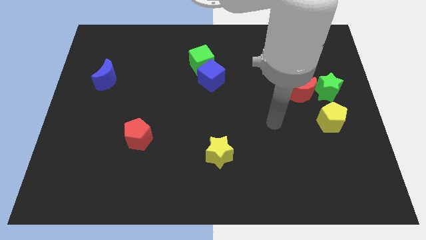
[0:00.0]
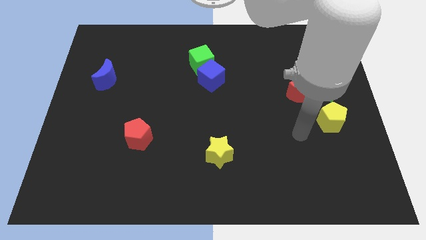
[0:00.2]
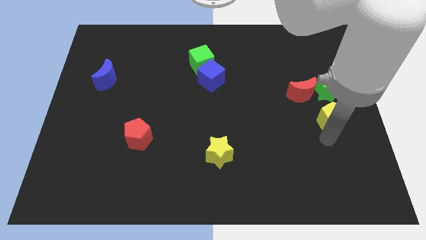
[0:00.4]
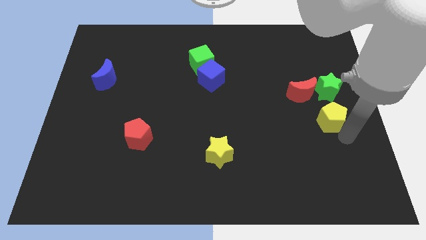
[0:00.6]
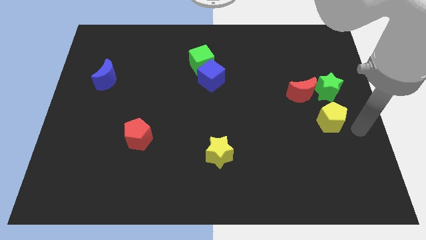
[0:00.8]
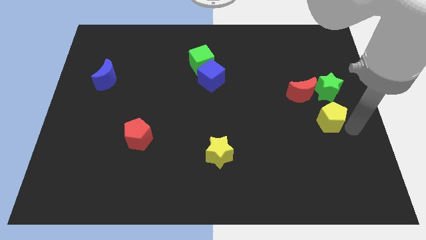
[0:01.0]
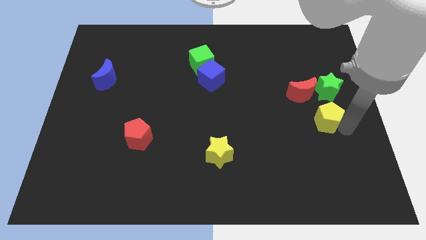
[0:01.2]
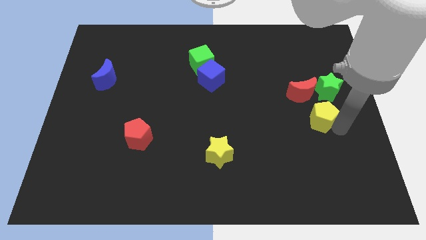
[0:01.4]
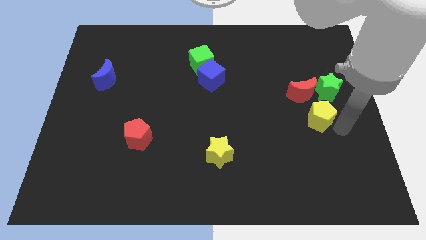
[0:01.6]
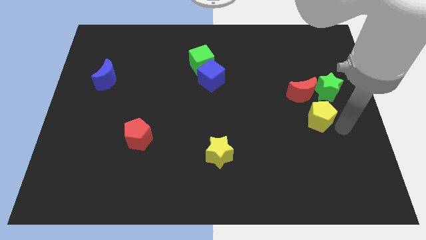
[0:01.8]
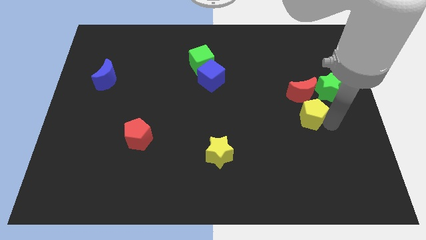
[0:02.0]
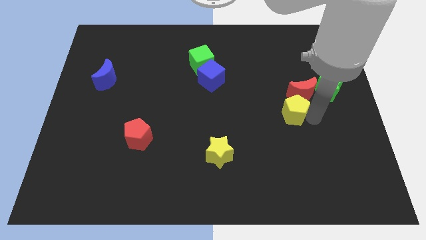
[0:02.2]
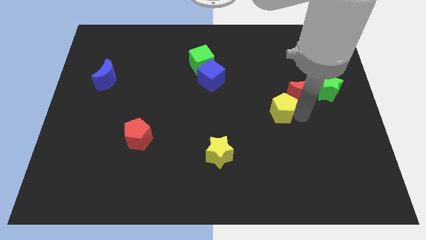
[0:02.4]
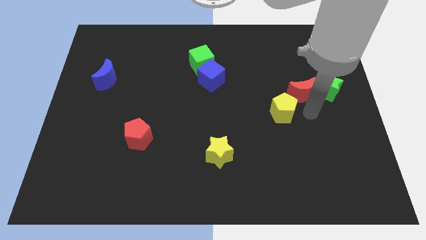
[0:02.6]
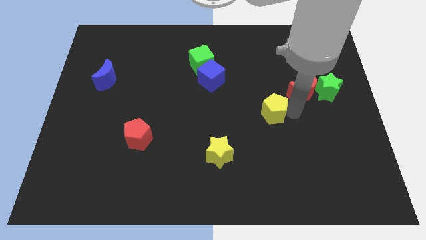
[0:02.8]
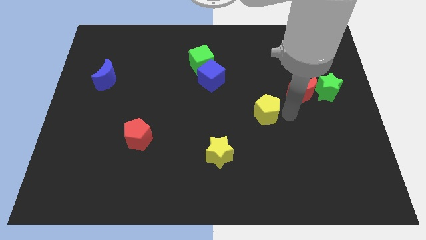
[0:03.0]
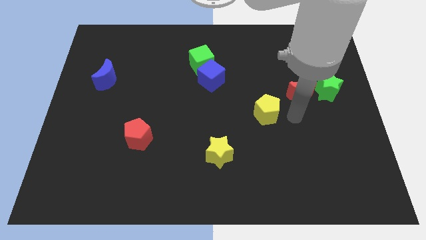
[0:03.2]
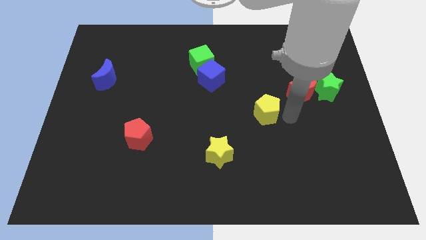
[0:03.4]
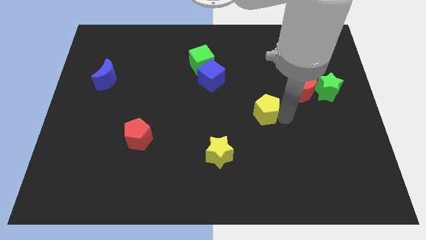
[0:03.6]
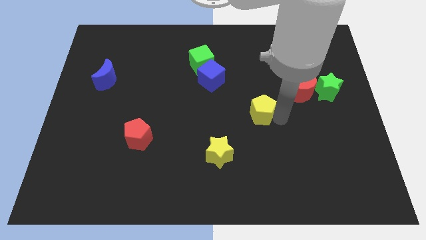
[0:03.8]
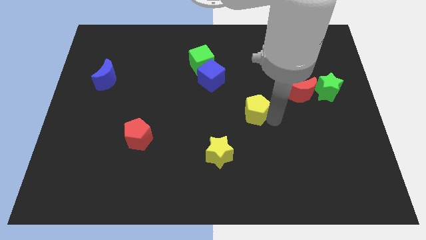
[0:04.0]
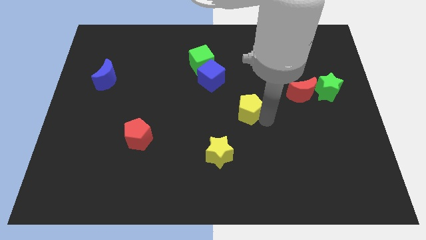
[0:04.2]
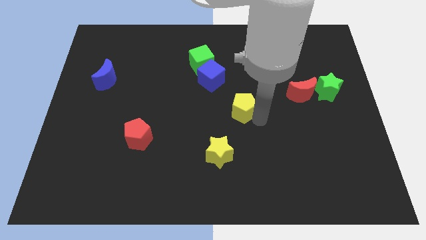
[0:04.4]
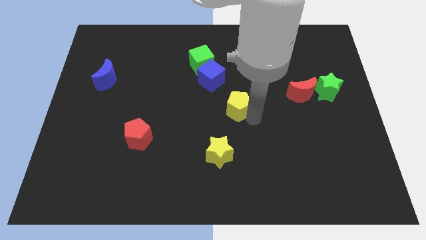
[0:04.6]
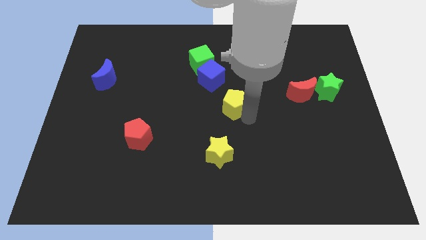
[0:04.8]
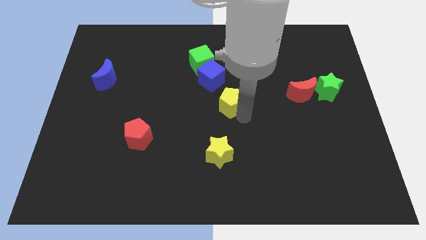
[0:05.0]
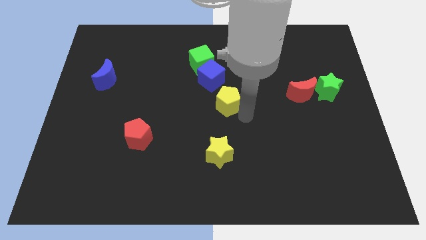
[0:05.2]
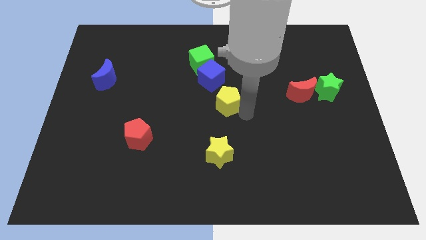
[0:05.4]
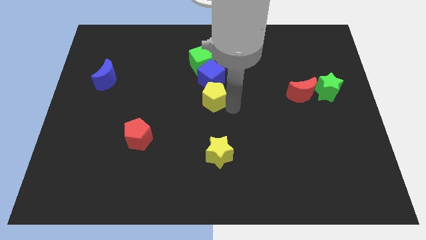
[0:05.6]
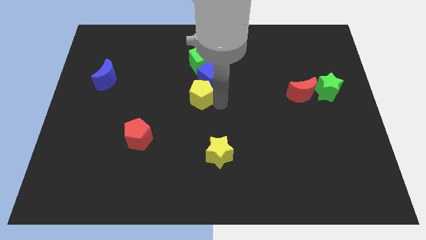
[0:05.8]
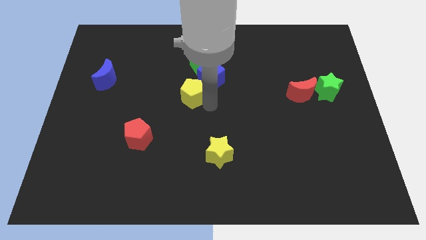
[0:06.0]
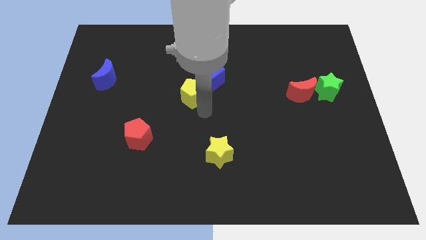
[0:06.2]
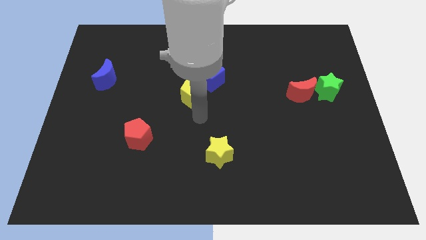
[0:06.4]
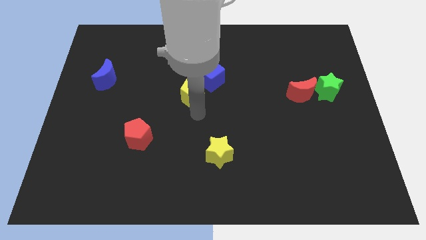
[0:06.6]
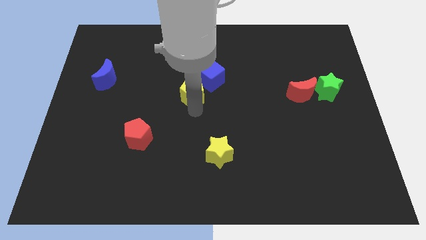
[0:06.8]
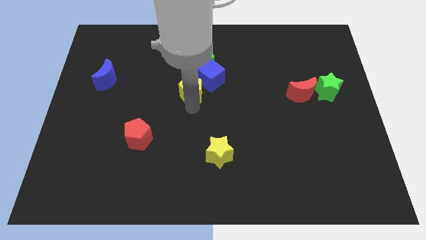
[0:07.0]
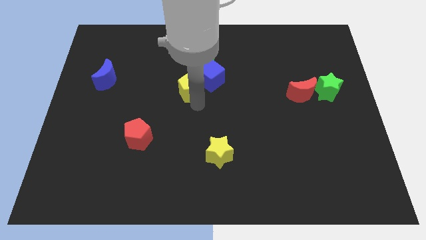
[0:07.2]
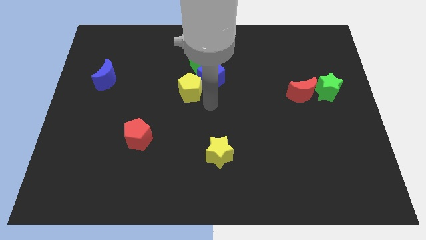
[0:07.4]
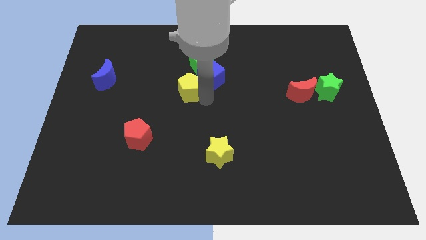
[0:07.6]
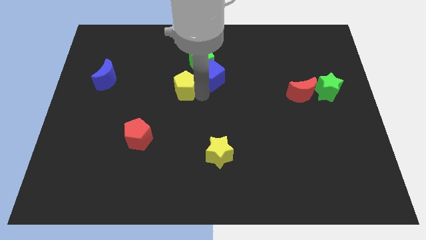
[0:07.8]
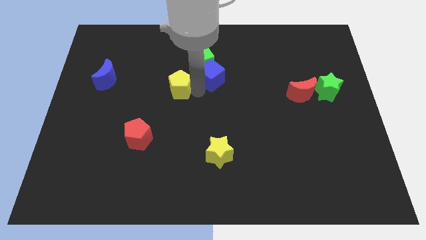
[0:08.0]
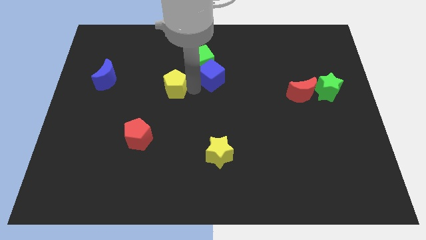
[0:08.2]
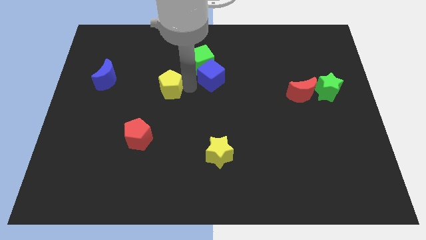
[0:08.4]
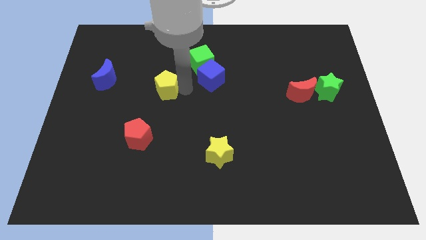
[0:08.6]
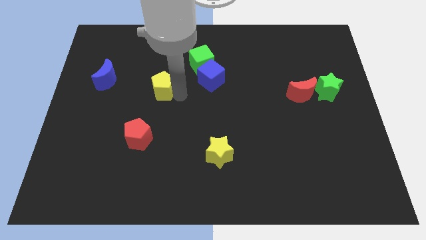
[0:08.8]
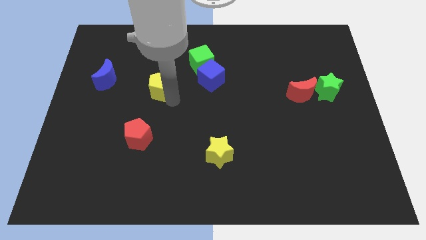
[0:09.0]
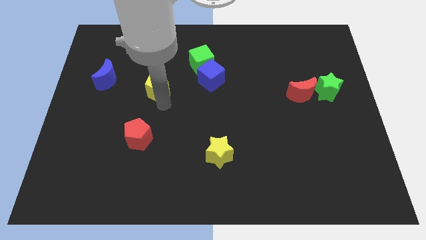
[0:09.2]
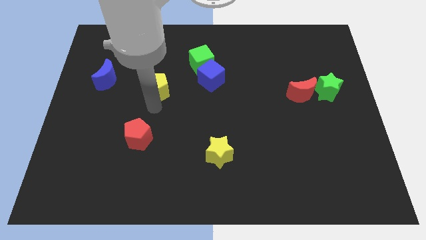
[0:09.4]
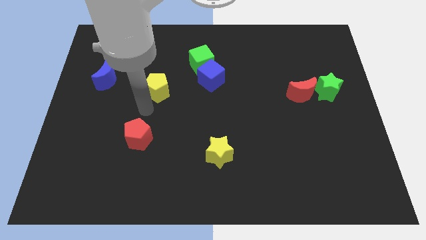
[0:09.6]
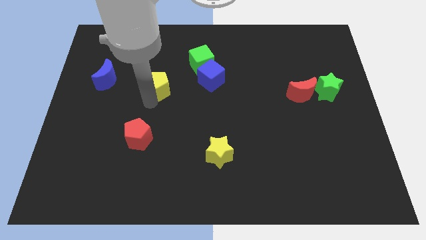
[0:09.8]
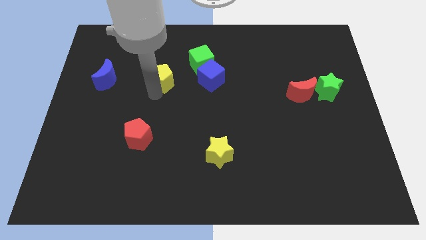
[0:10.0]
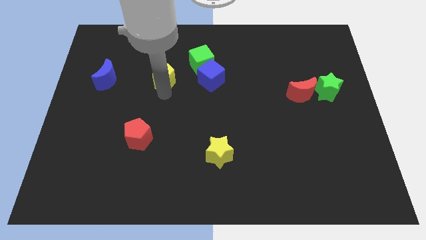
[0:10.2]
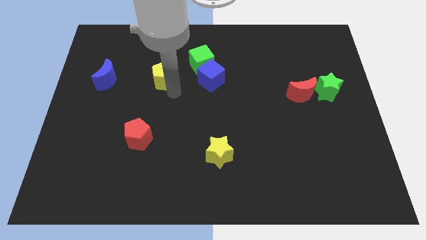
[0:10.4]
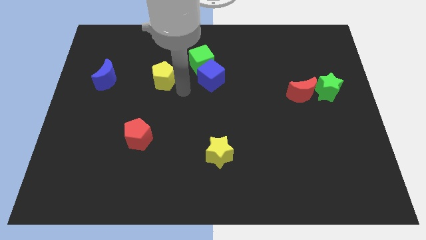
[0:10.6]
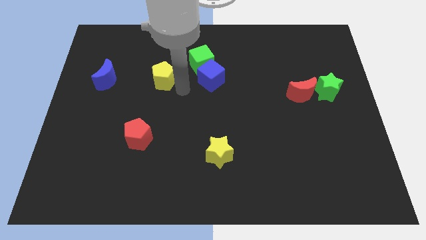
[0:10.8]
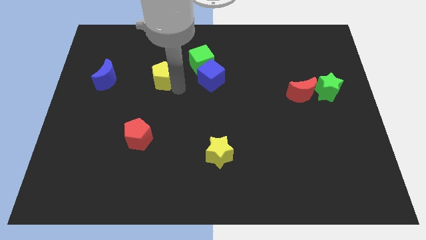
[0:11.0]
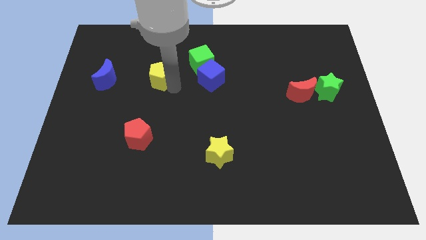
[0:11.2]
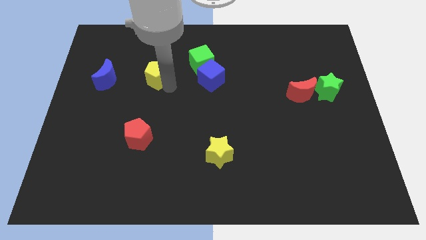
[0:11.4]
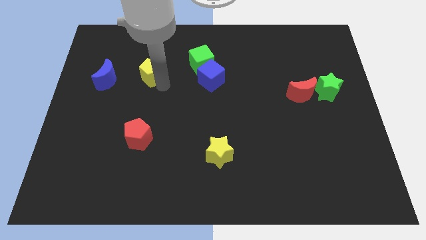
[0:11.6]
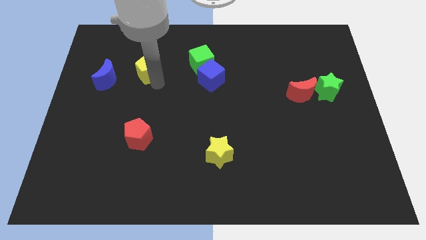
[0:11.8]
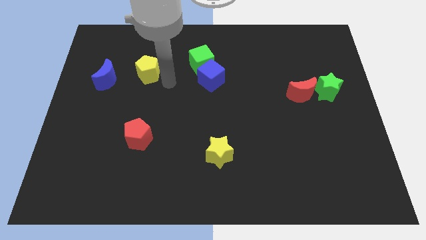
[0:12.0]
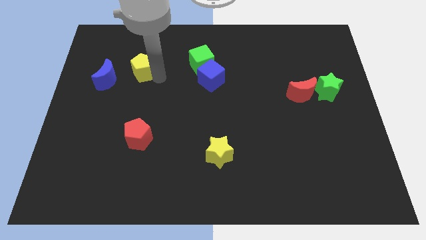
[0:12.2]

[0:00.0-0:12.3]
slide the yellow pentagon diagonally up and to the right of the blue moon

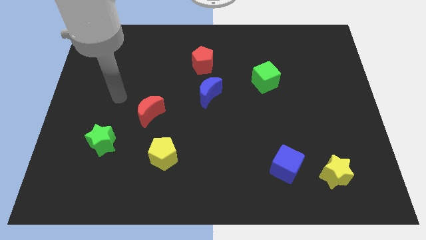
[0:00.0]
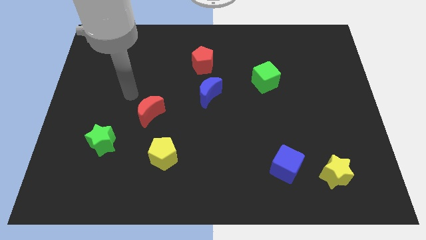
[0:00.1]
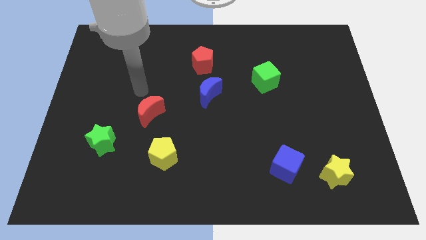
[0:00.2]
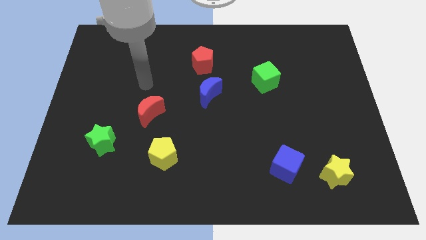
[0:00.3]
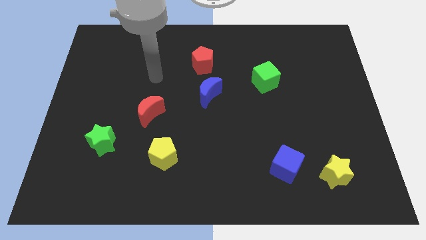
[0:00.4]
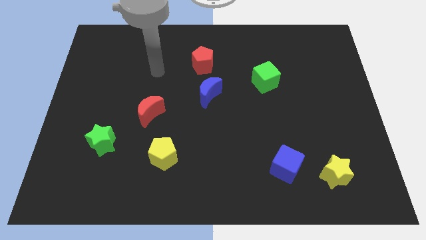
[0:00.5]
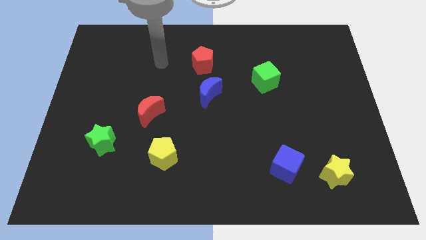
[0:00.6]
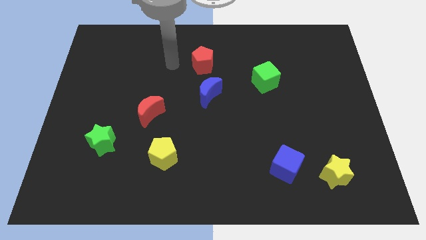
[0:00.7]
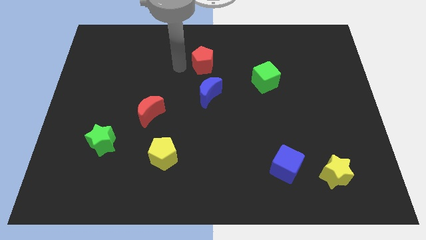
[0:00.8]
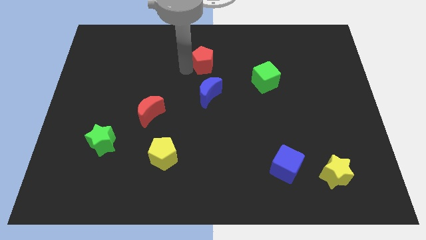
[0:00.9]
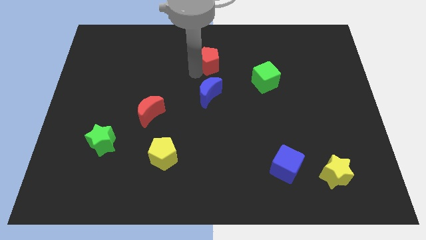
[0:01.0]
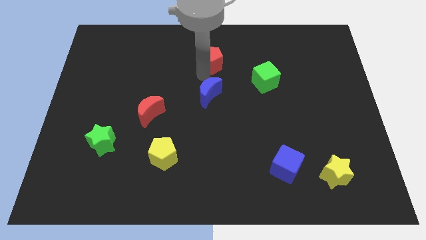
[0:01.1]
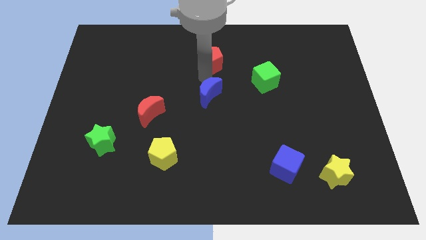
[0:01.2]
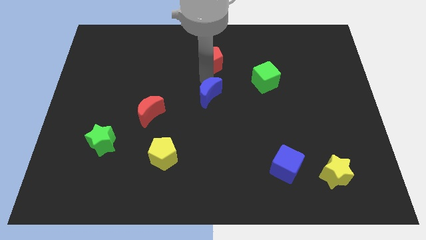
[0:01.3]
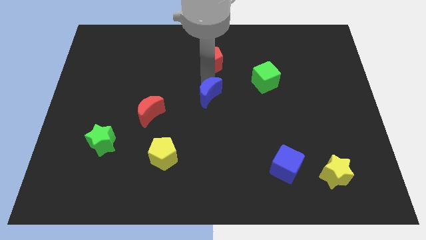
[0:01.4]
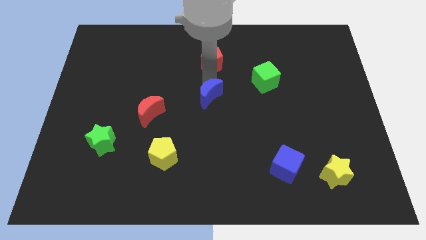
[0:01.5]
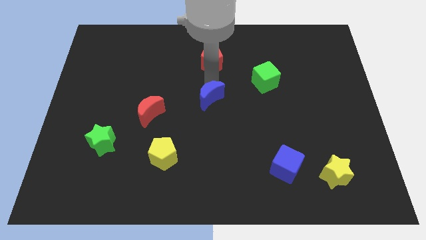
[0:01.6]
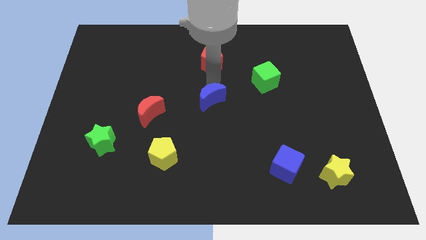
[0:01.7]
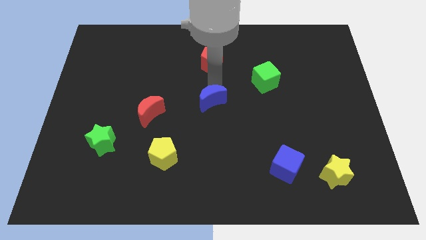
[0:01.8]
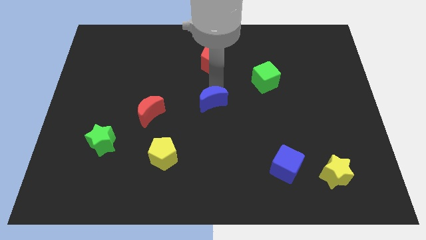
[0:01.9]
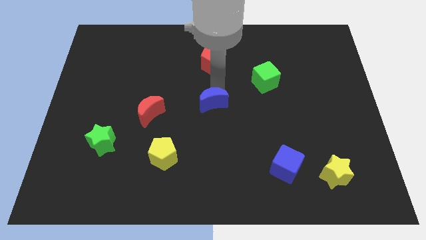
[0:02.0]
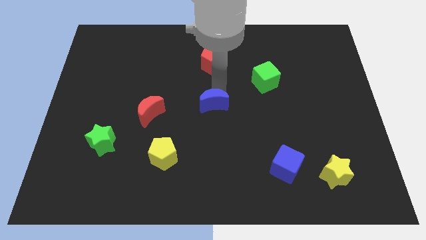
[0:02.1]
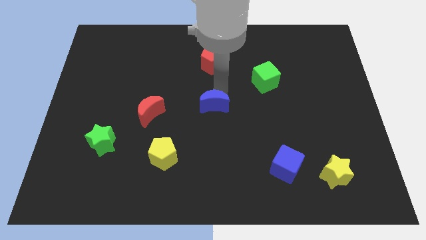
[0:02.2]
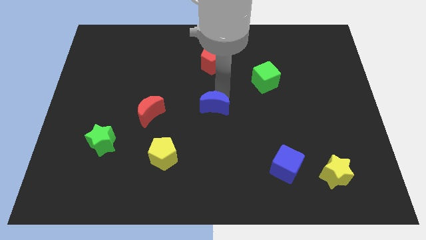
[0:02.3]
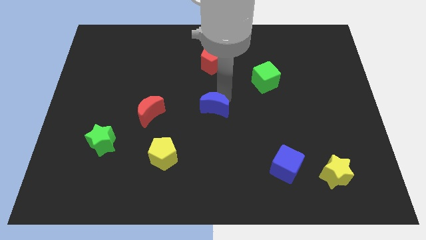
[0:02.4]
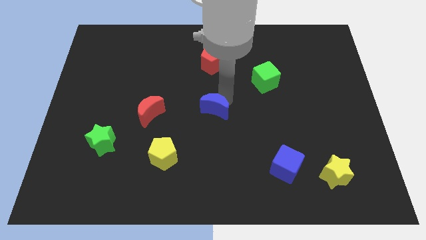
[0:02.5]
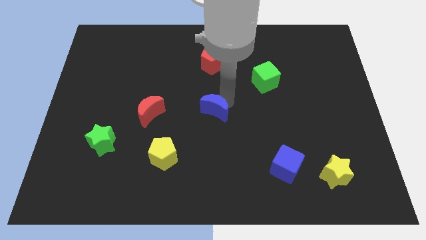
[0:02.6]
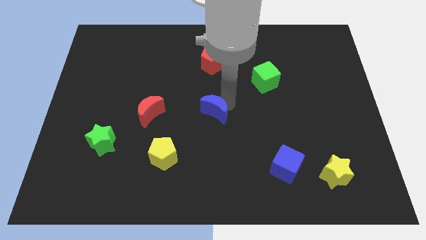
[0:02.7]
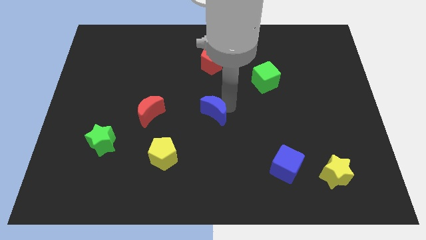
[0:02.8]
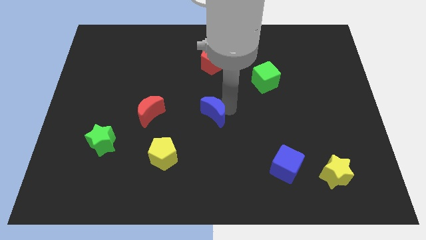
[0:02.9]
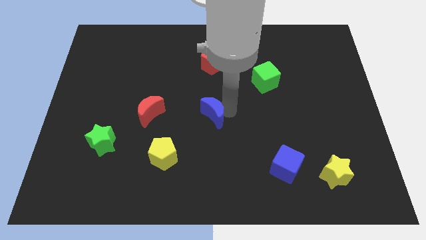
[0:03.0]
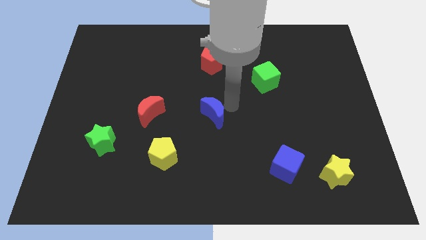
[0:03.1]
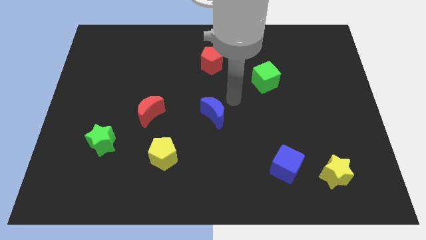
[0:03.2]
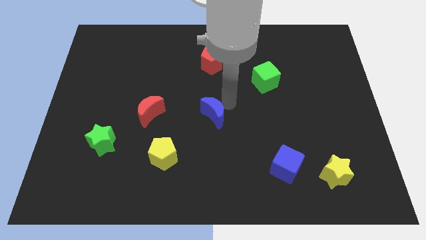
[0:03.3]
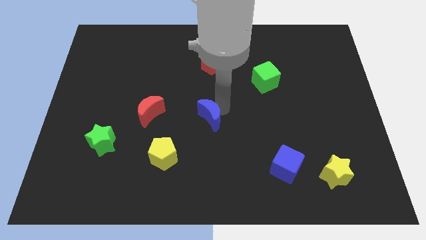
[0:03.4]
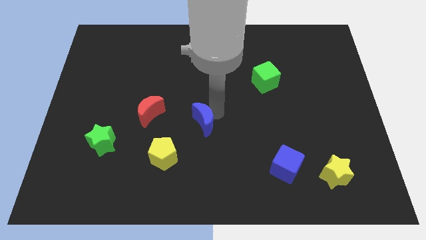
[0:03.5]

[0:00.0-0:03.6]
move the blue moon diagonally up and to the right of the yellow pentagon
